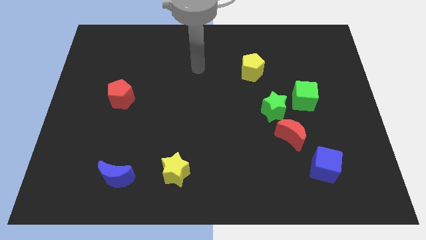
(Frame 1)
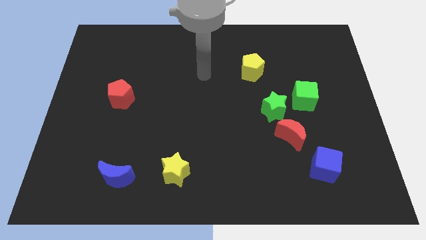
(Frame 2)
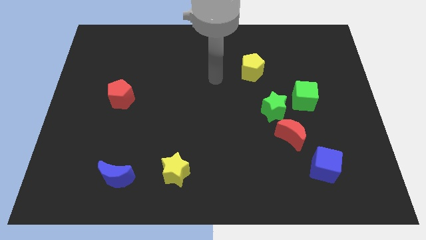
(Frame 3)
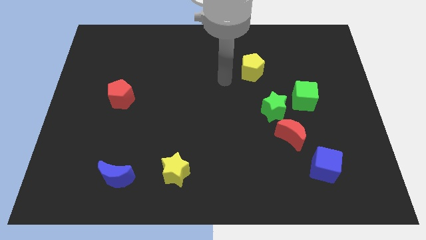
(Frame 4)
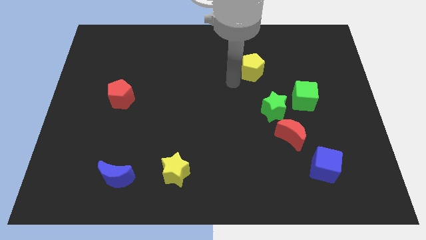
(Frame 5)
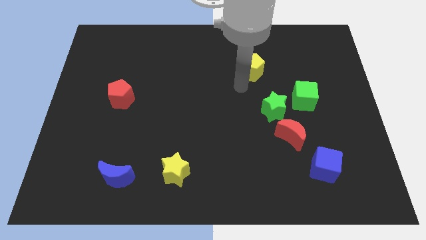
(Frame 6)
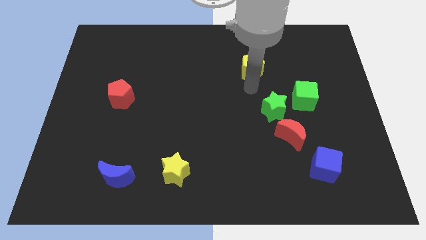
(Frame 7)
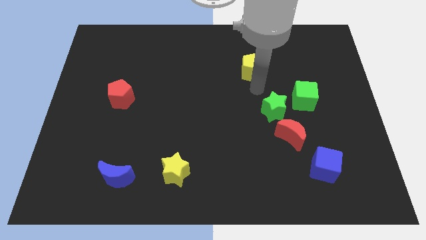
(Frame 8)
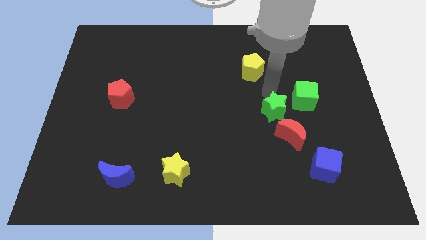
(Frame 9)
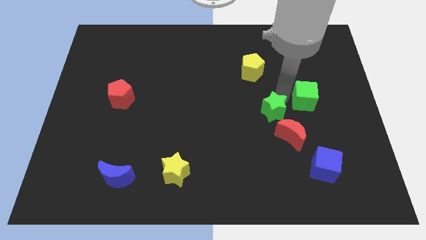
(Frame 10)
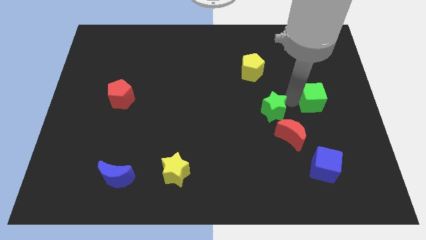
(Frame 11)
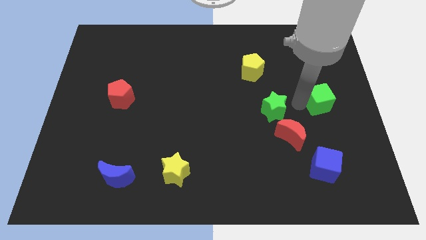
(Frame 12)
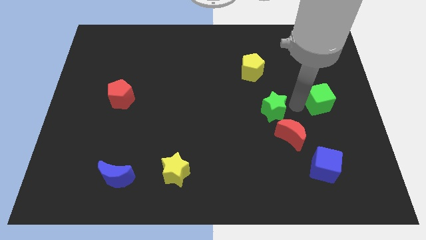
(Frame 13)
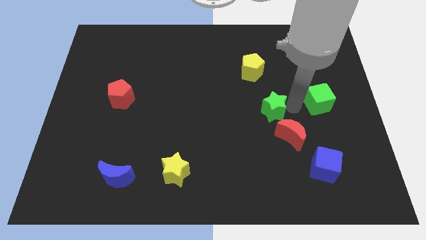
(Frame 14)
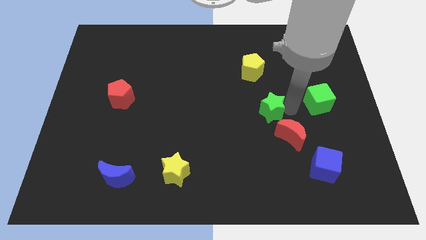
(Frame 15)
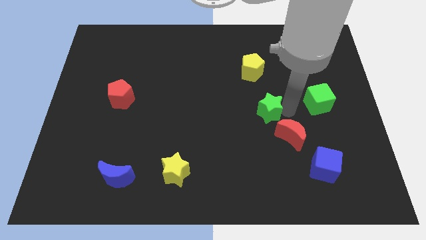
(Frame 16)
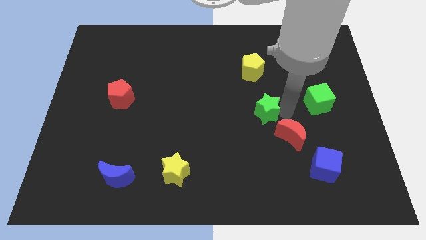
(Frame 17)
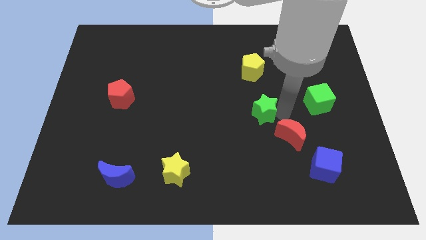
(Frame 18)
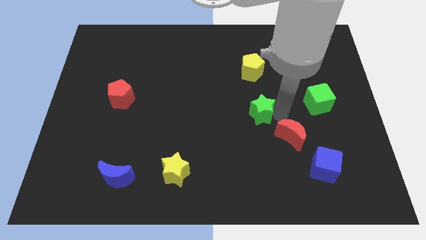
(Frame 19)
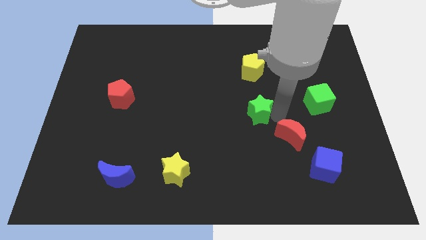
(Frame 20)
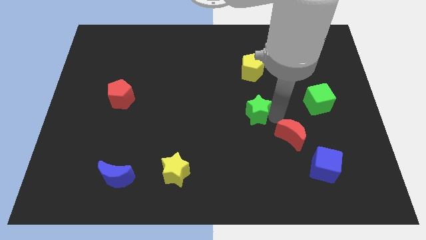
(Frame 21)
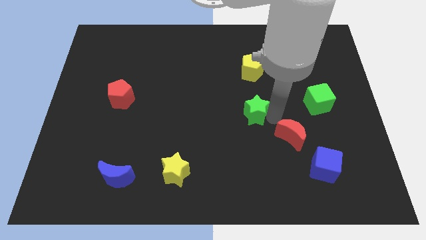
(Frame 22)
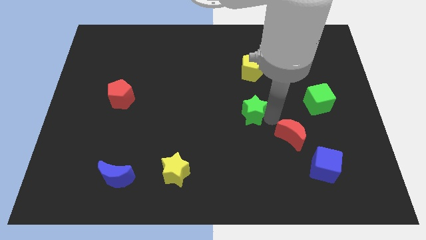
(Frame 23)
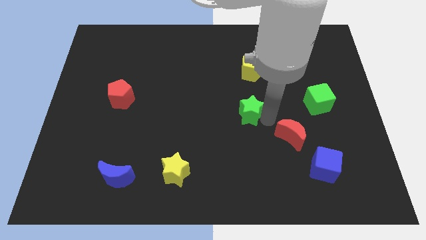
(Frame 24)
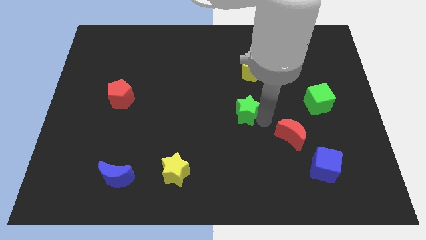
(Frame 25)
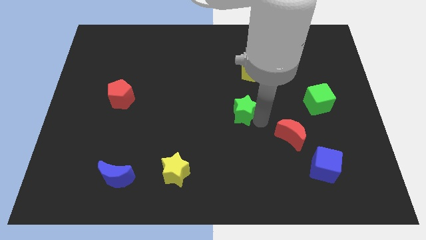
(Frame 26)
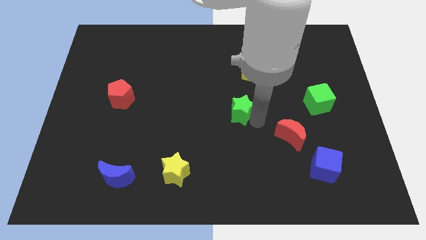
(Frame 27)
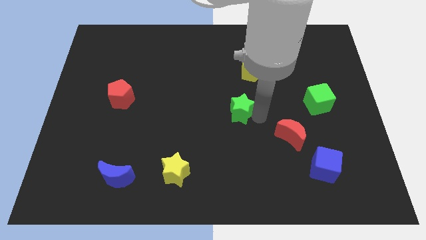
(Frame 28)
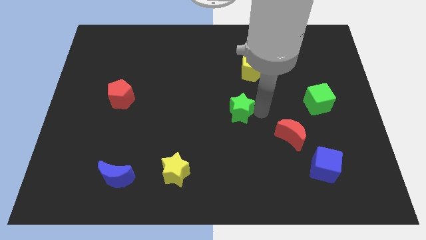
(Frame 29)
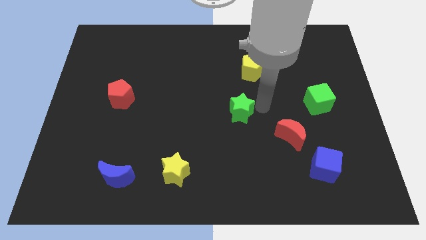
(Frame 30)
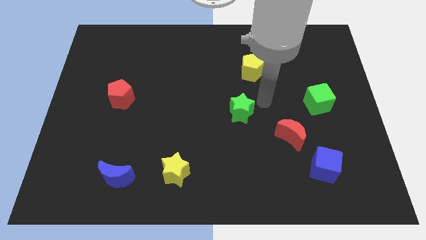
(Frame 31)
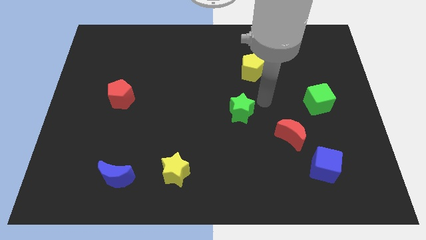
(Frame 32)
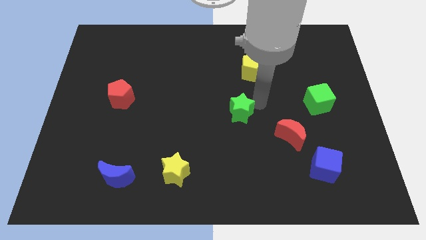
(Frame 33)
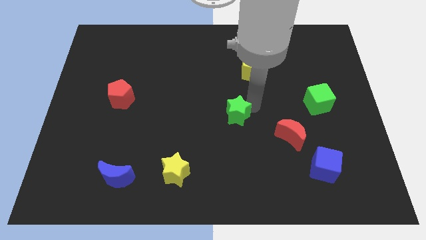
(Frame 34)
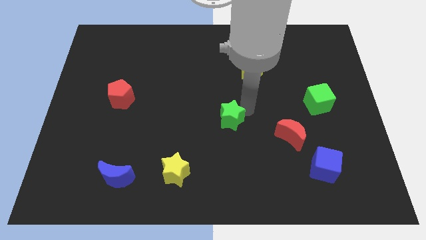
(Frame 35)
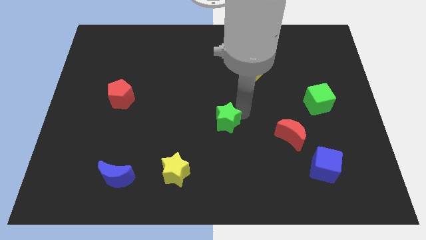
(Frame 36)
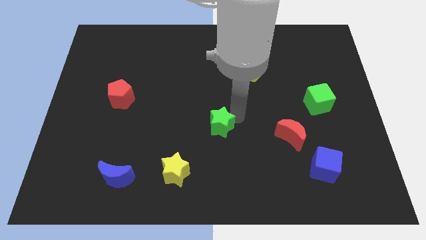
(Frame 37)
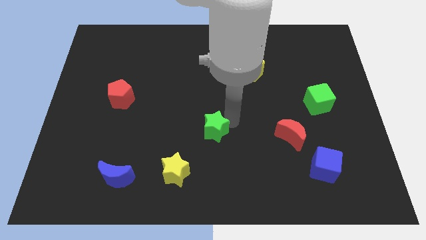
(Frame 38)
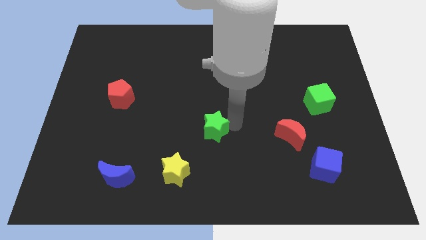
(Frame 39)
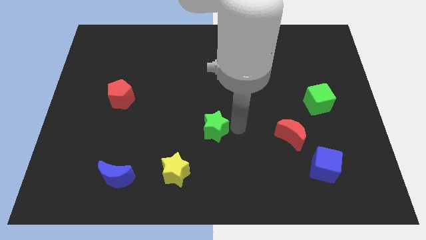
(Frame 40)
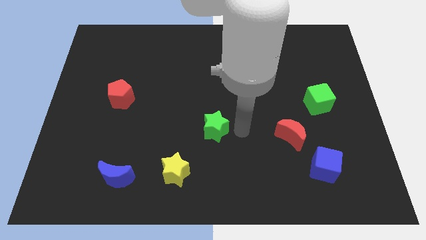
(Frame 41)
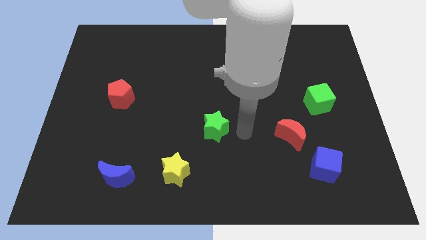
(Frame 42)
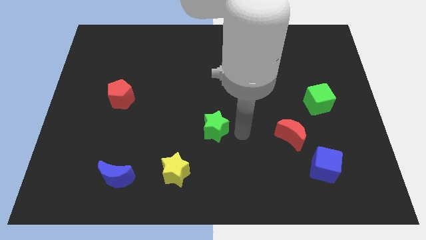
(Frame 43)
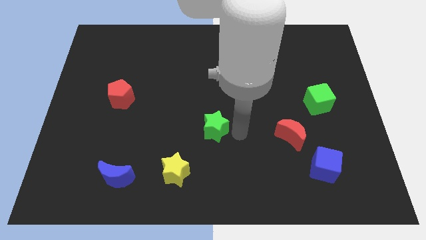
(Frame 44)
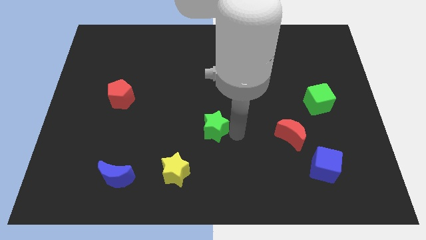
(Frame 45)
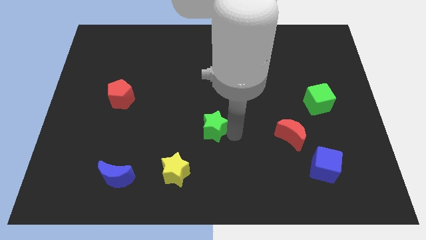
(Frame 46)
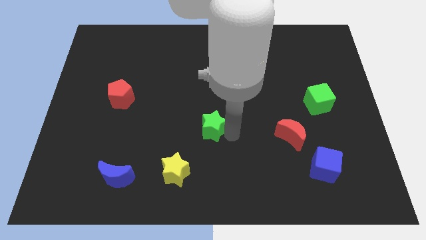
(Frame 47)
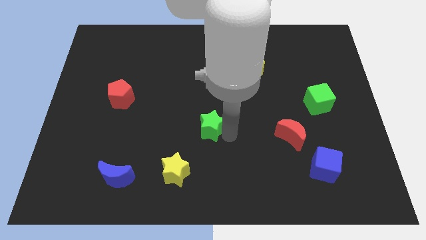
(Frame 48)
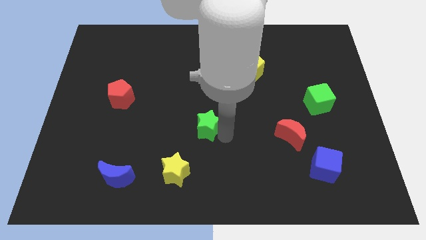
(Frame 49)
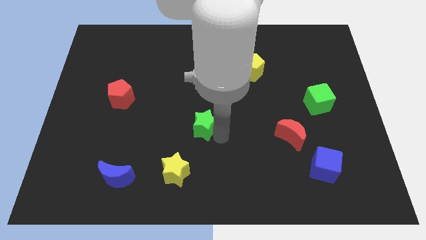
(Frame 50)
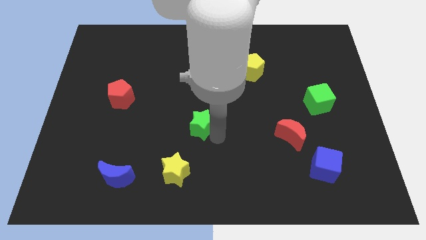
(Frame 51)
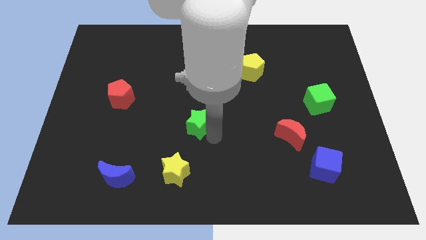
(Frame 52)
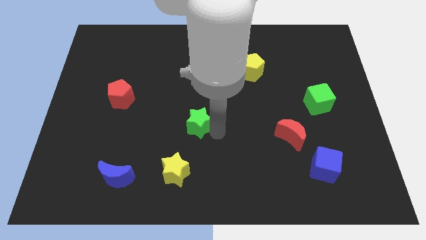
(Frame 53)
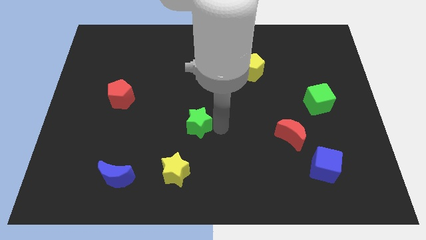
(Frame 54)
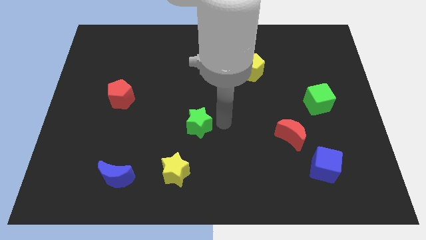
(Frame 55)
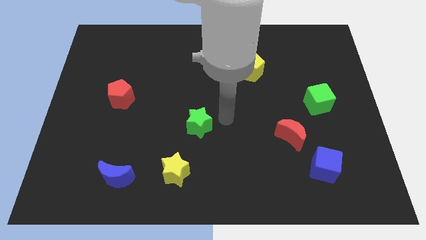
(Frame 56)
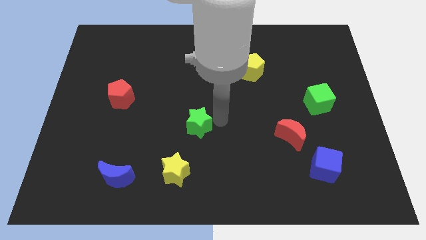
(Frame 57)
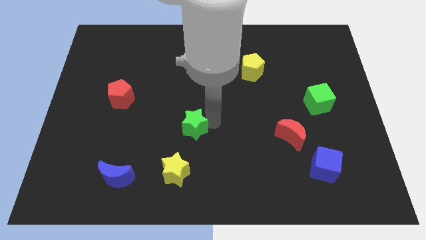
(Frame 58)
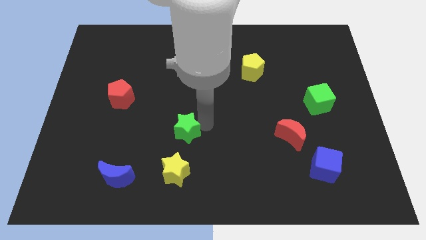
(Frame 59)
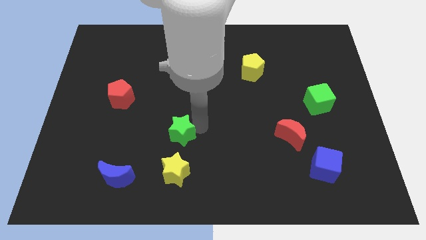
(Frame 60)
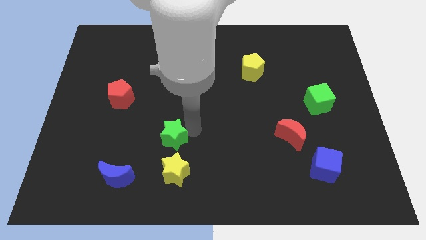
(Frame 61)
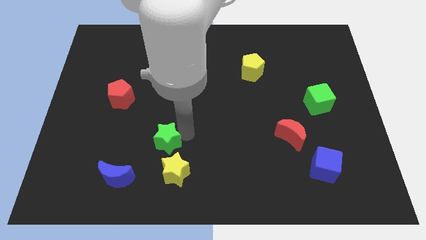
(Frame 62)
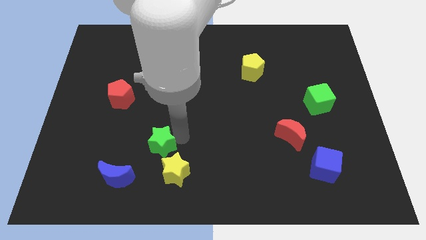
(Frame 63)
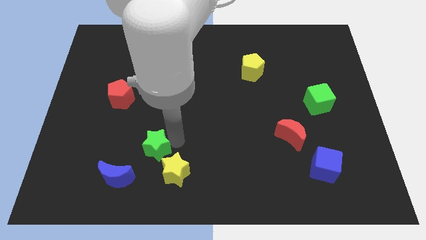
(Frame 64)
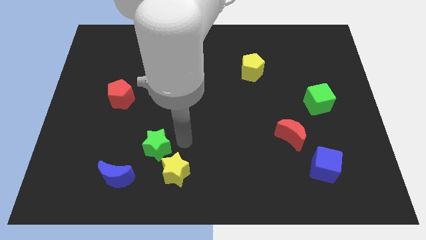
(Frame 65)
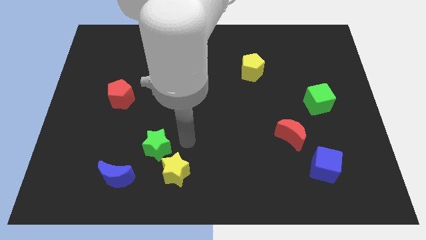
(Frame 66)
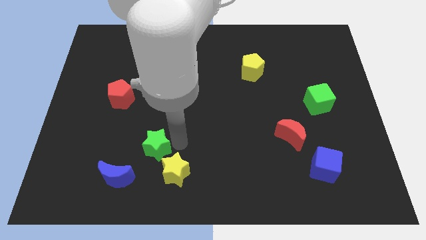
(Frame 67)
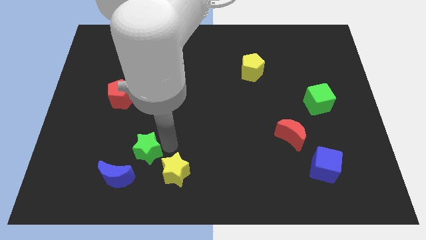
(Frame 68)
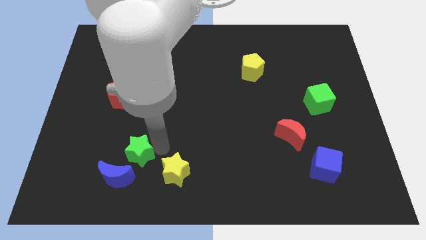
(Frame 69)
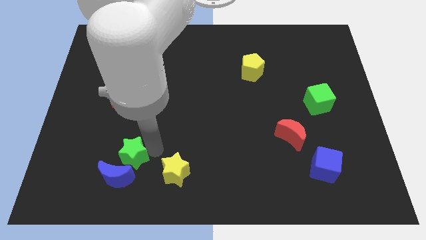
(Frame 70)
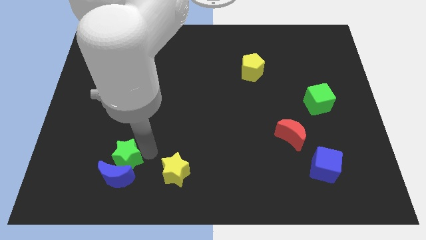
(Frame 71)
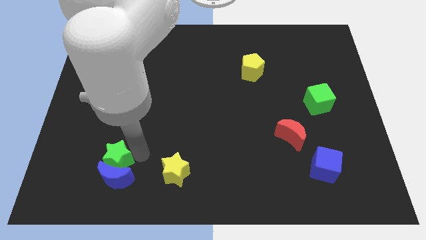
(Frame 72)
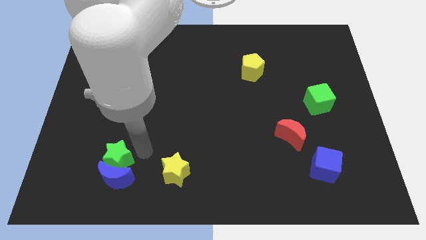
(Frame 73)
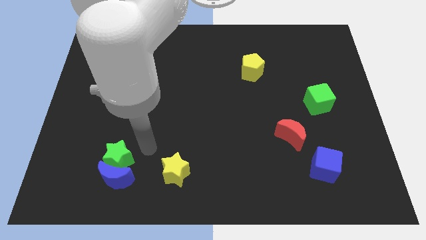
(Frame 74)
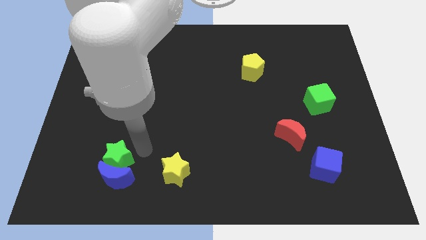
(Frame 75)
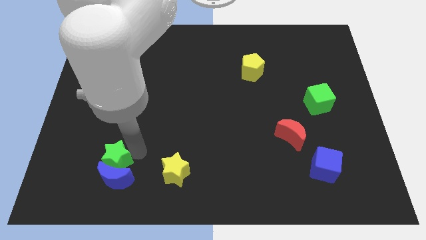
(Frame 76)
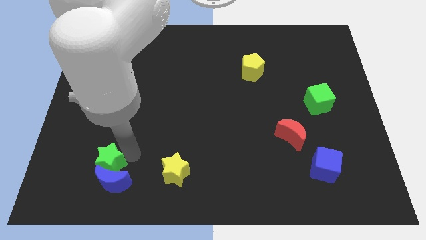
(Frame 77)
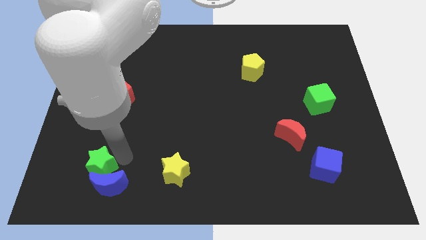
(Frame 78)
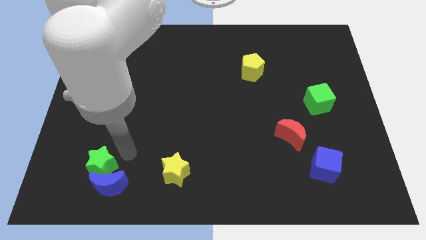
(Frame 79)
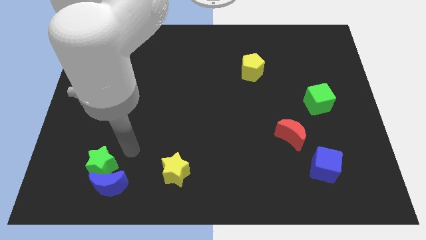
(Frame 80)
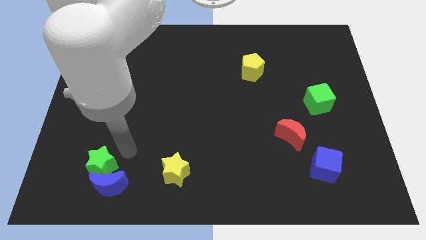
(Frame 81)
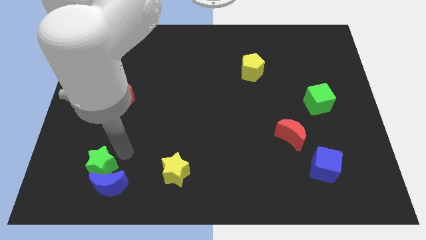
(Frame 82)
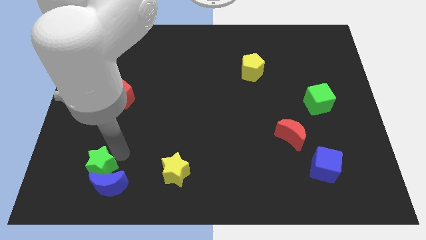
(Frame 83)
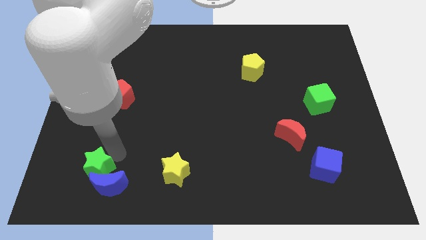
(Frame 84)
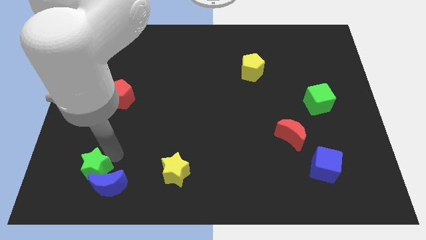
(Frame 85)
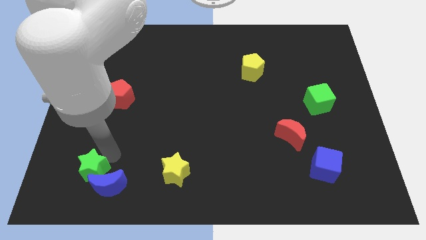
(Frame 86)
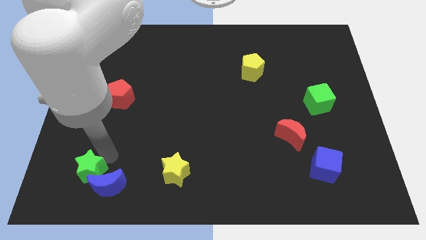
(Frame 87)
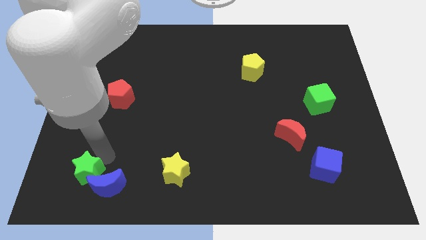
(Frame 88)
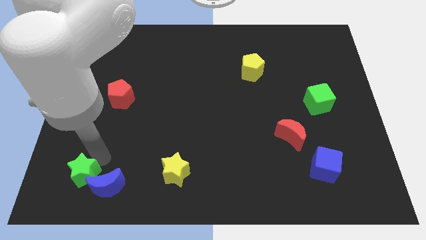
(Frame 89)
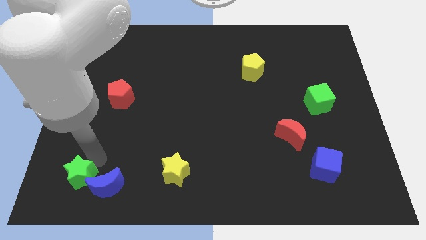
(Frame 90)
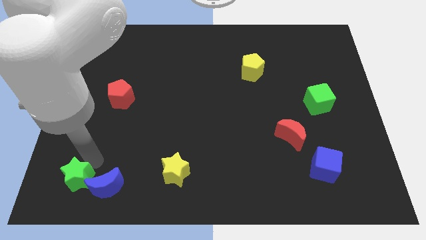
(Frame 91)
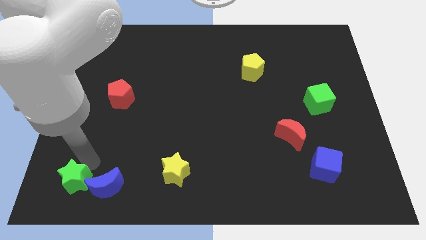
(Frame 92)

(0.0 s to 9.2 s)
put the green star to the bottom left of the board
